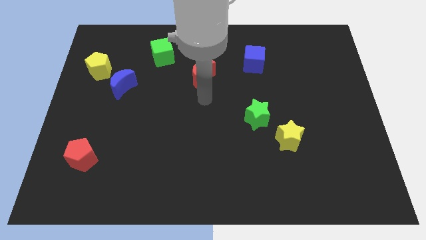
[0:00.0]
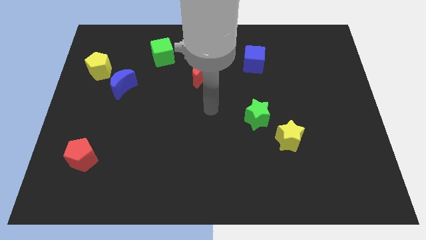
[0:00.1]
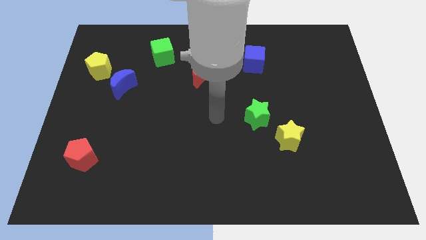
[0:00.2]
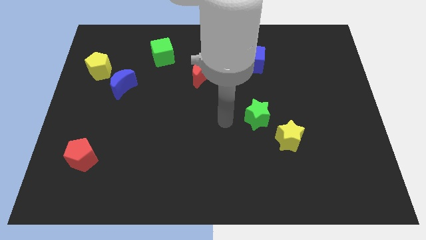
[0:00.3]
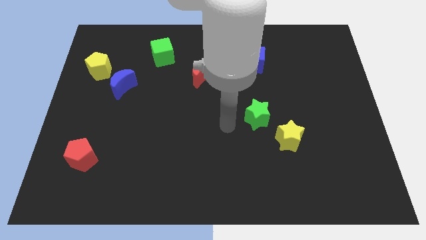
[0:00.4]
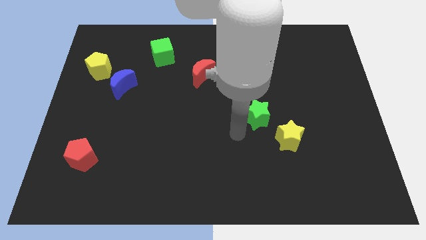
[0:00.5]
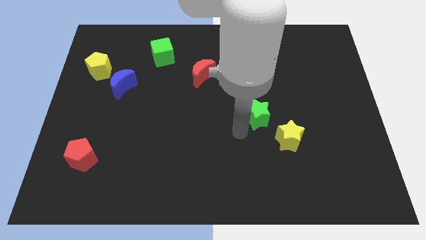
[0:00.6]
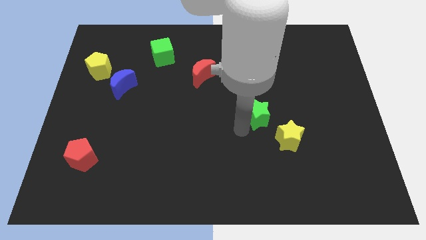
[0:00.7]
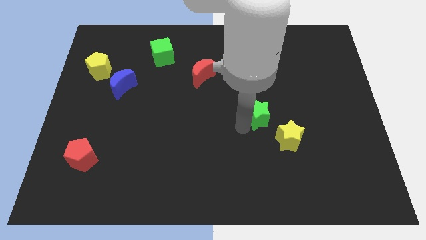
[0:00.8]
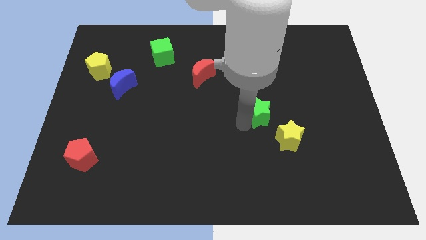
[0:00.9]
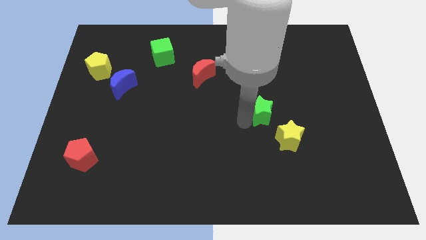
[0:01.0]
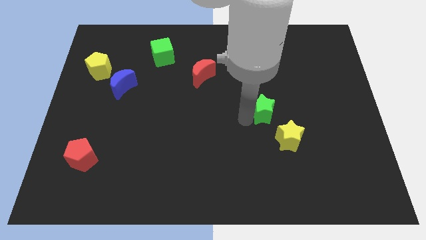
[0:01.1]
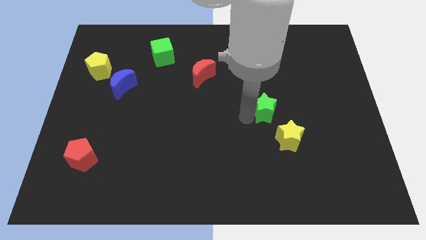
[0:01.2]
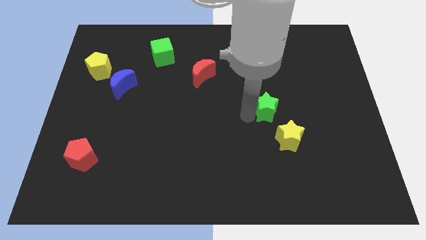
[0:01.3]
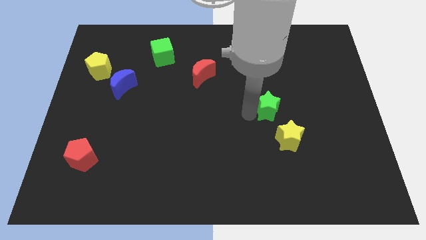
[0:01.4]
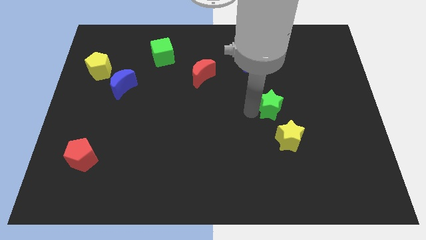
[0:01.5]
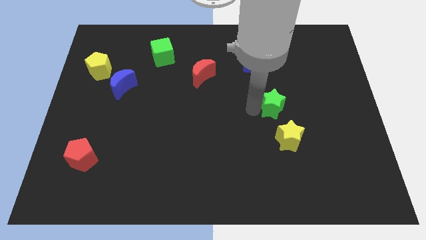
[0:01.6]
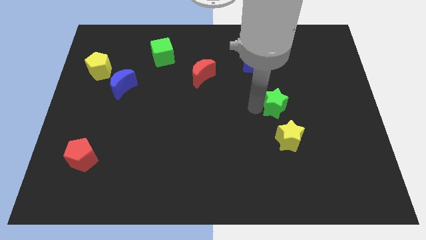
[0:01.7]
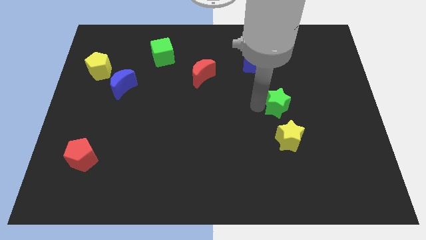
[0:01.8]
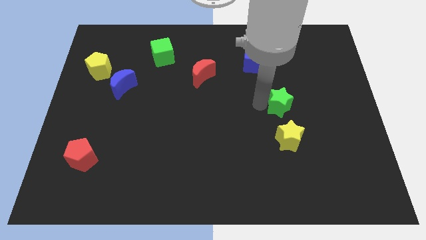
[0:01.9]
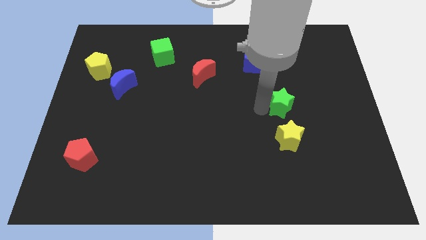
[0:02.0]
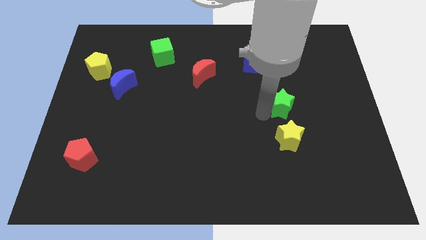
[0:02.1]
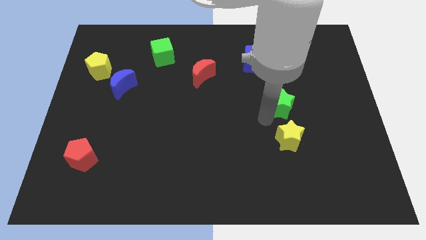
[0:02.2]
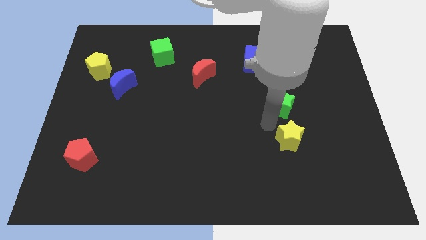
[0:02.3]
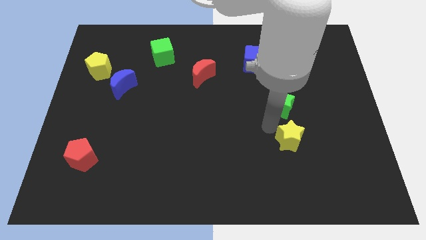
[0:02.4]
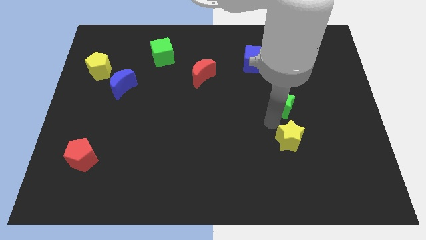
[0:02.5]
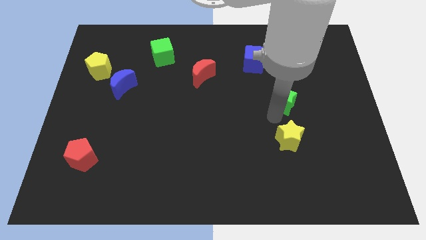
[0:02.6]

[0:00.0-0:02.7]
slide the green star a little up and to the right

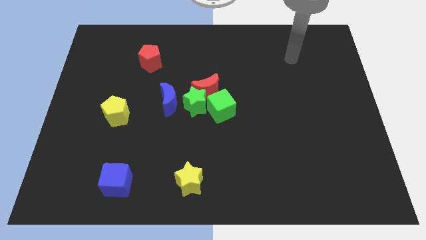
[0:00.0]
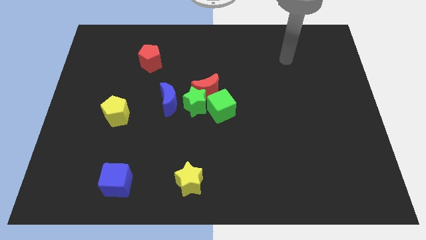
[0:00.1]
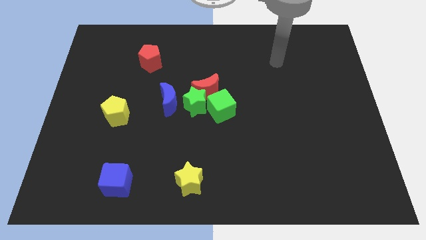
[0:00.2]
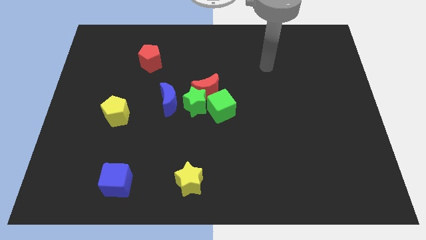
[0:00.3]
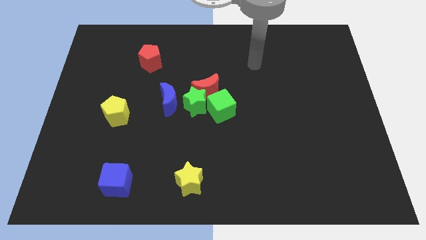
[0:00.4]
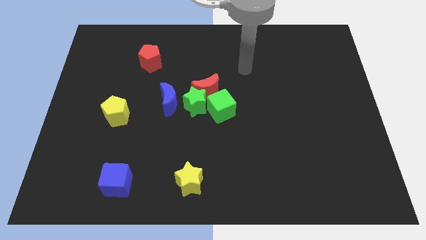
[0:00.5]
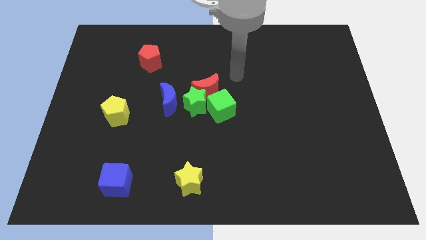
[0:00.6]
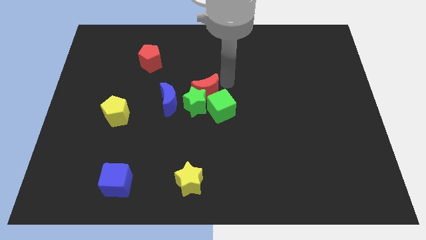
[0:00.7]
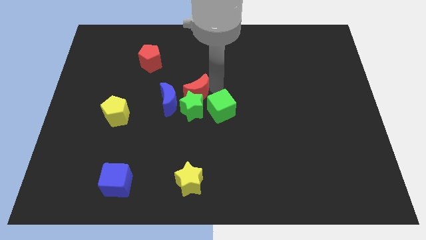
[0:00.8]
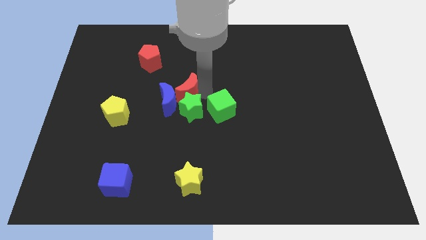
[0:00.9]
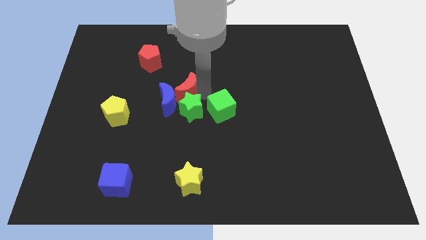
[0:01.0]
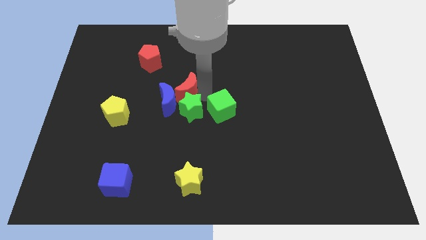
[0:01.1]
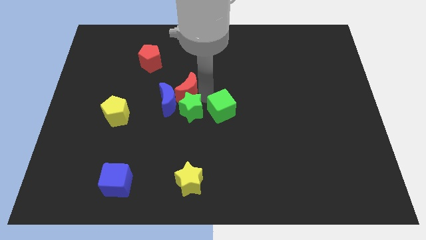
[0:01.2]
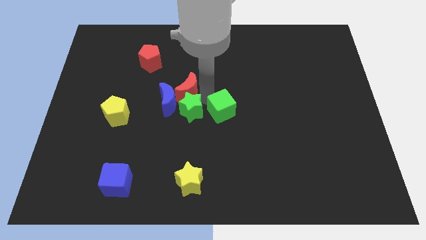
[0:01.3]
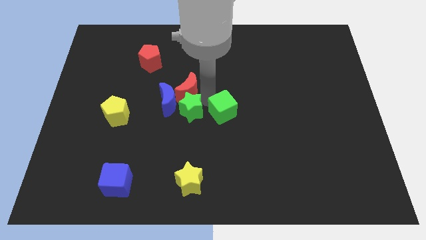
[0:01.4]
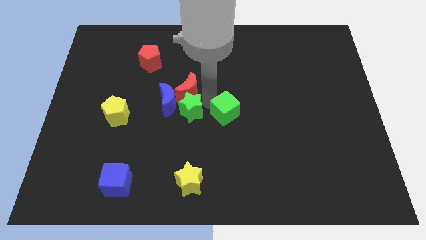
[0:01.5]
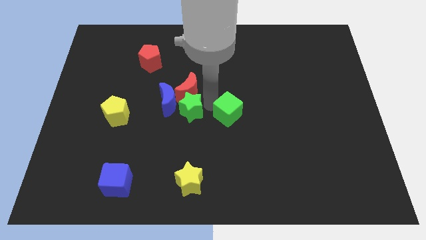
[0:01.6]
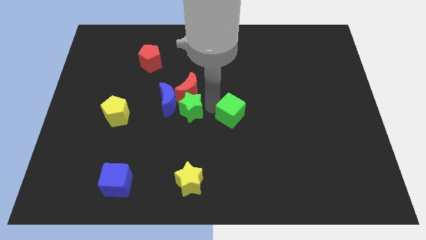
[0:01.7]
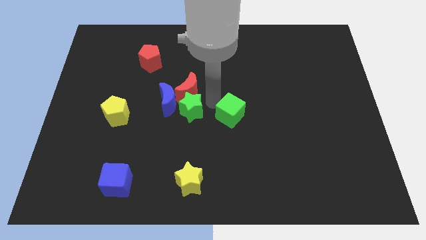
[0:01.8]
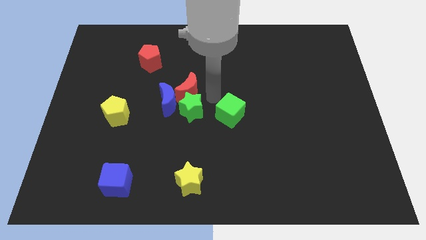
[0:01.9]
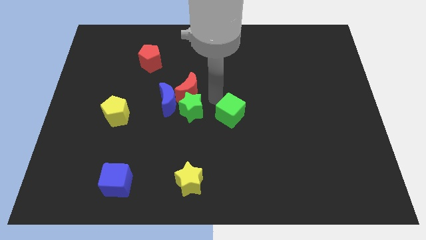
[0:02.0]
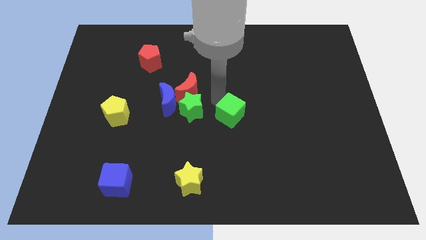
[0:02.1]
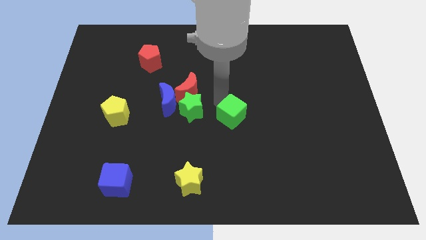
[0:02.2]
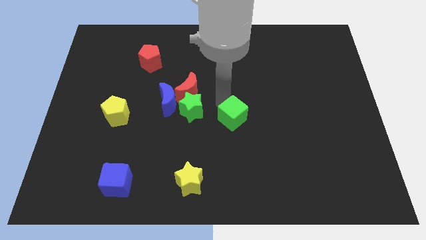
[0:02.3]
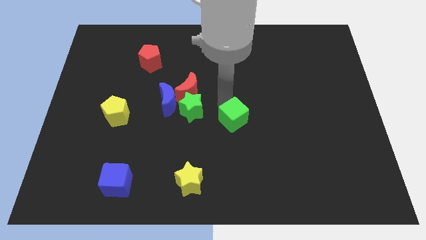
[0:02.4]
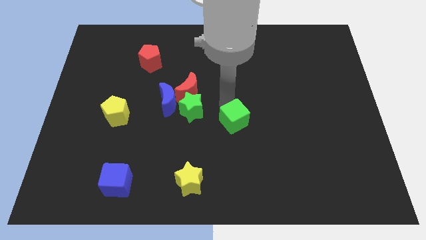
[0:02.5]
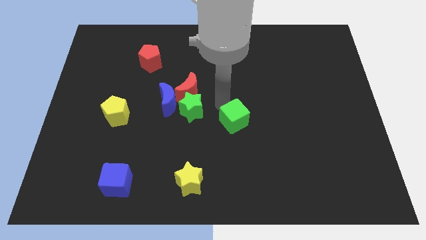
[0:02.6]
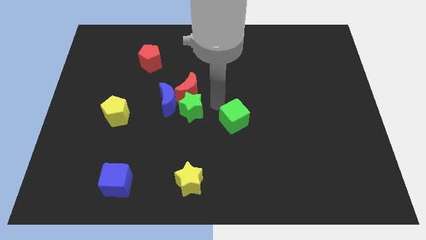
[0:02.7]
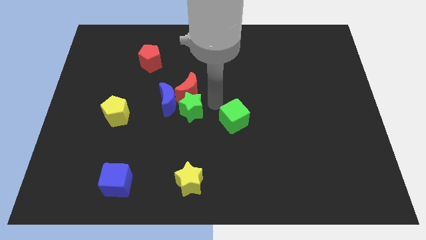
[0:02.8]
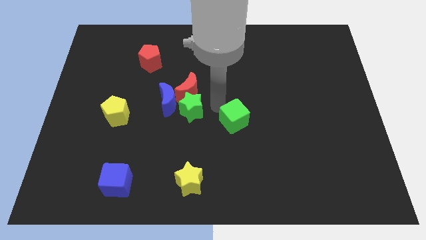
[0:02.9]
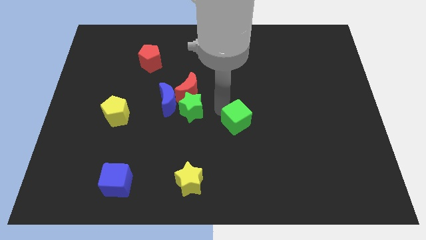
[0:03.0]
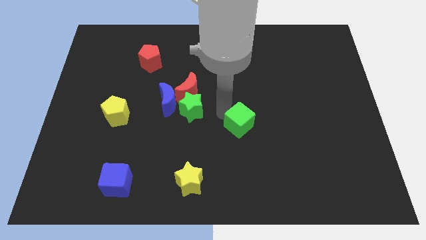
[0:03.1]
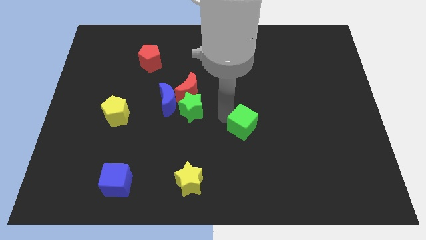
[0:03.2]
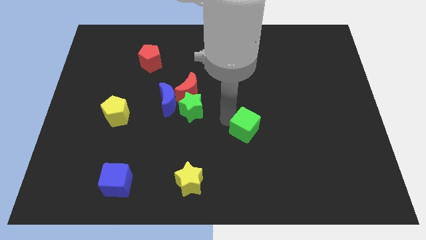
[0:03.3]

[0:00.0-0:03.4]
push the green cube diagonally downwards and to the right a little

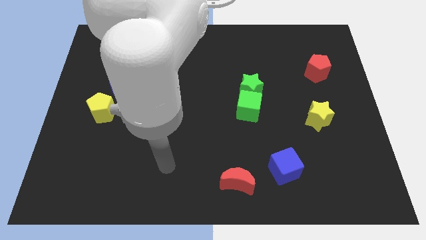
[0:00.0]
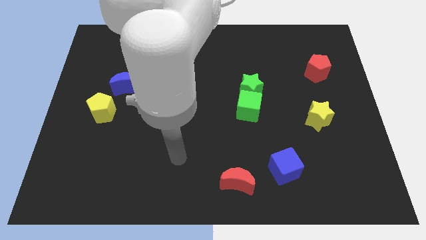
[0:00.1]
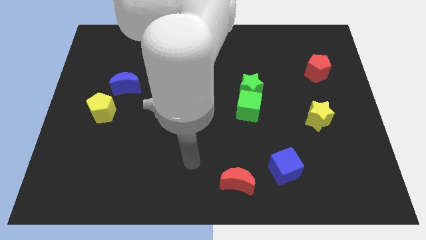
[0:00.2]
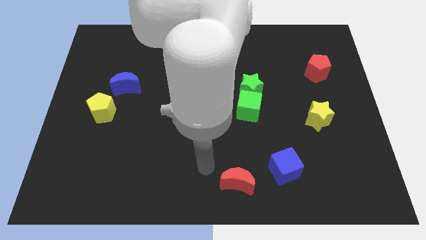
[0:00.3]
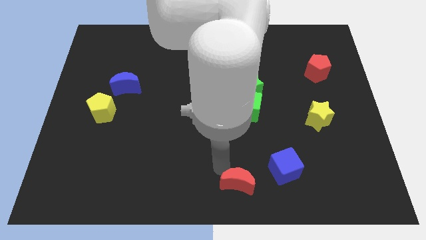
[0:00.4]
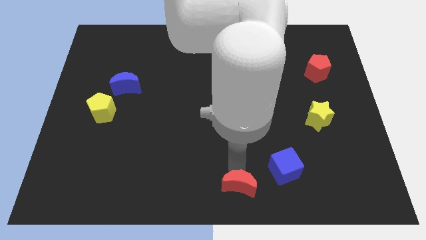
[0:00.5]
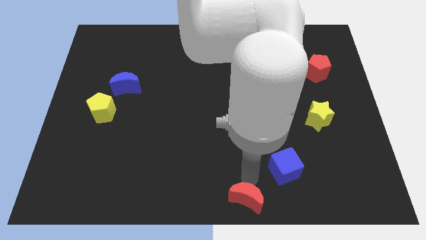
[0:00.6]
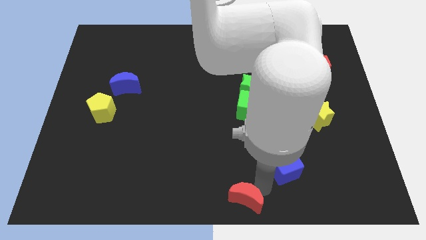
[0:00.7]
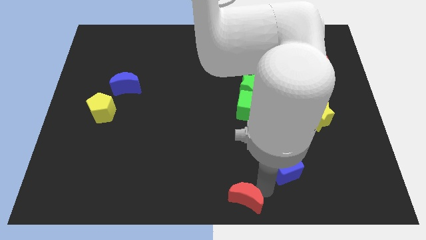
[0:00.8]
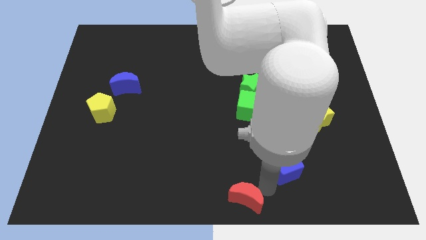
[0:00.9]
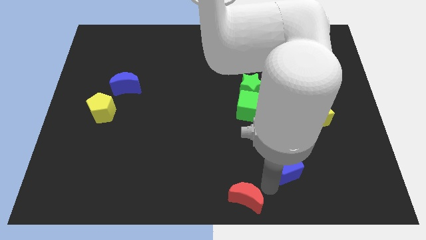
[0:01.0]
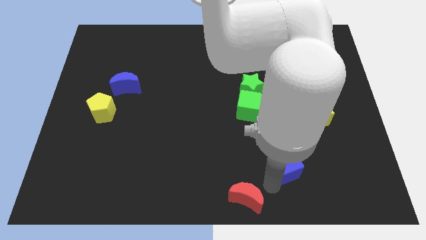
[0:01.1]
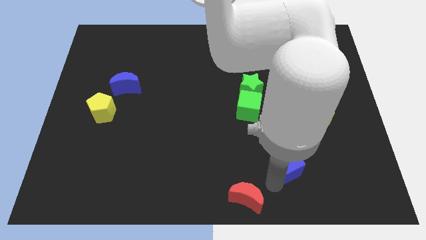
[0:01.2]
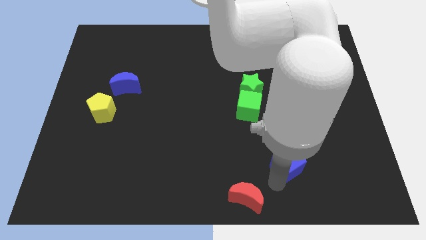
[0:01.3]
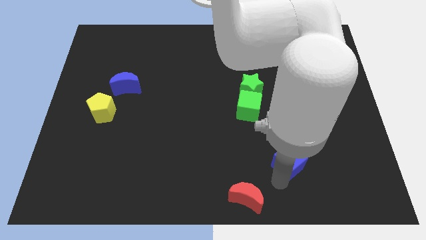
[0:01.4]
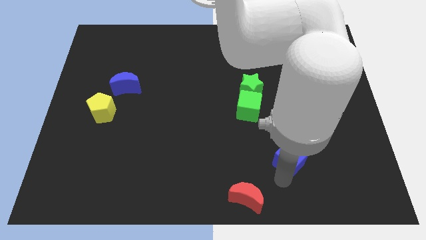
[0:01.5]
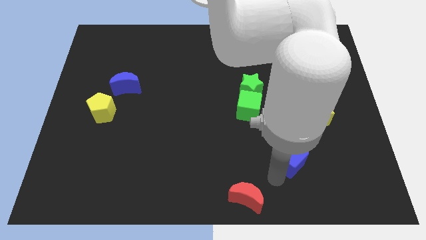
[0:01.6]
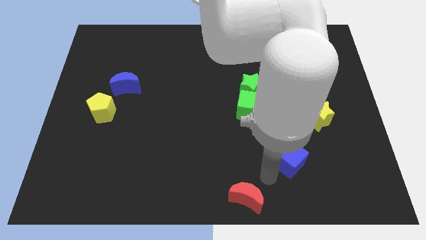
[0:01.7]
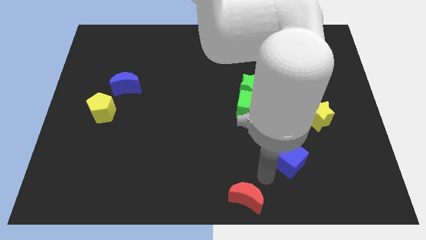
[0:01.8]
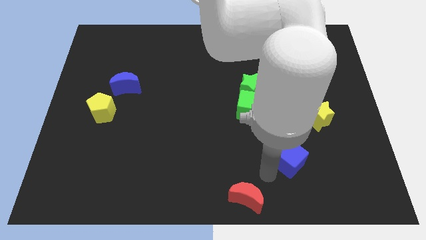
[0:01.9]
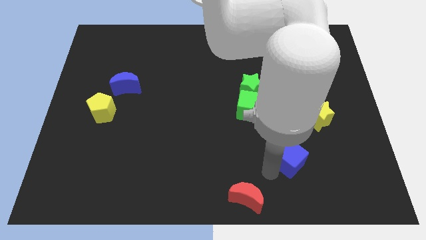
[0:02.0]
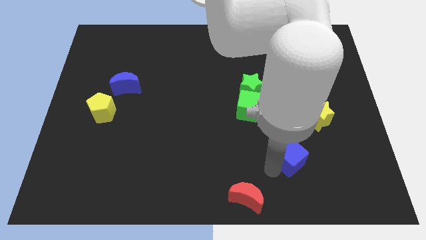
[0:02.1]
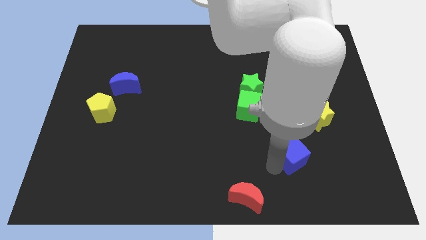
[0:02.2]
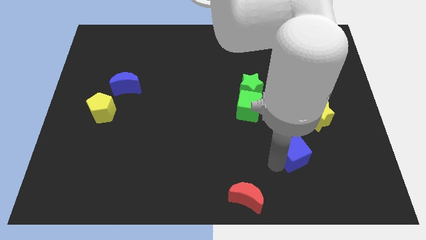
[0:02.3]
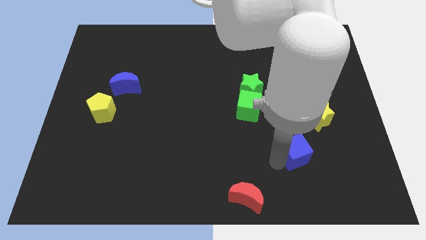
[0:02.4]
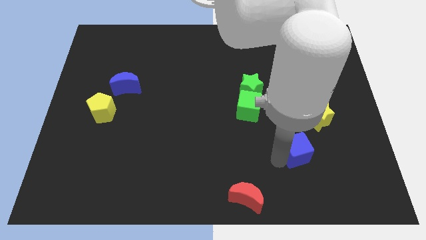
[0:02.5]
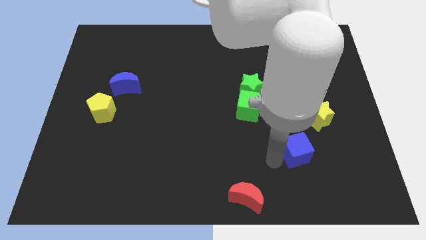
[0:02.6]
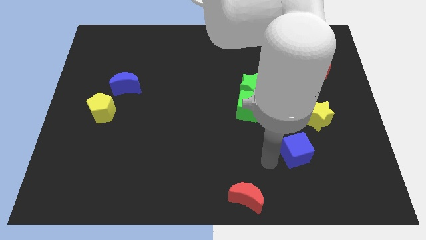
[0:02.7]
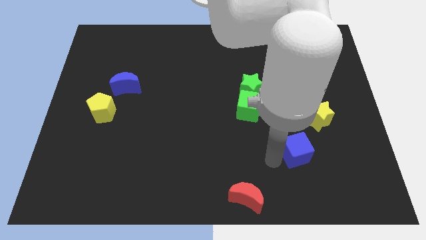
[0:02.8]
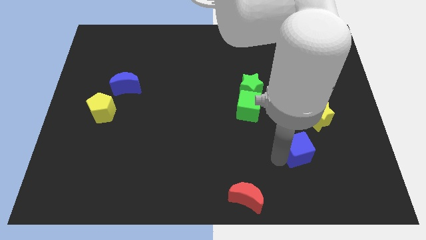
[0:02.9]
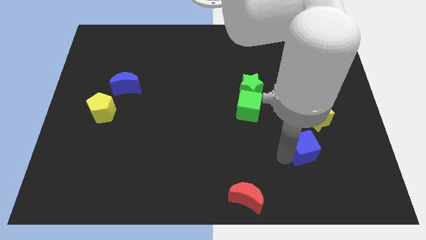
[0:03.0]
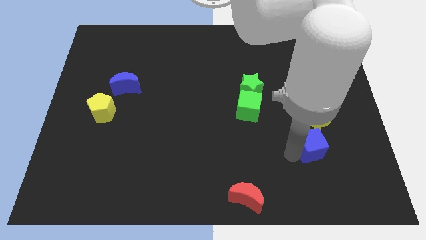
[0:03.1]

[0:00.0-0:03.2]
push the blue cube up and to the right a little bit
